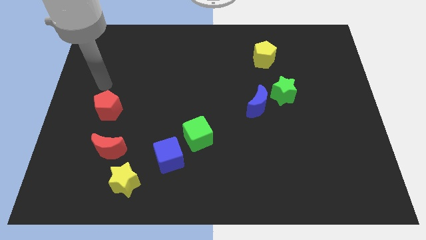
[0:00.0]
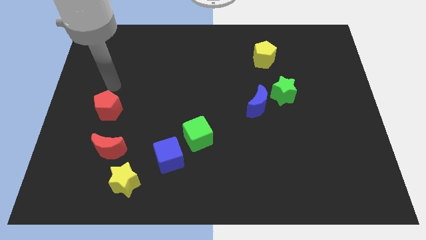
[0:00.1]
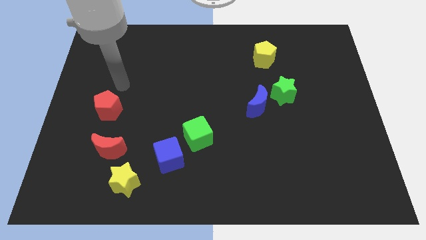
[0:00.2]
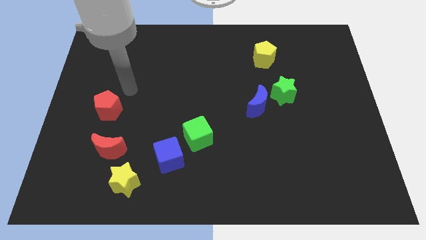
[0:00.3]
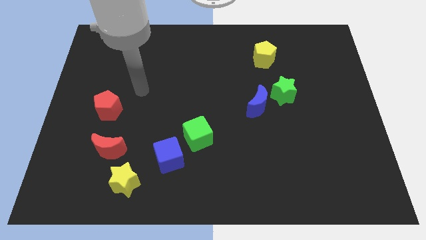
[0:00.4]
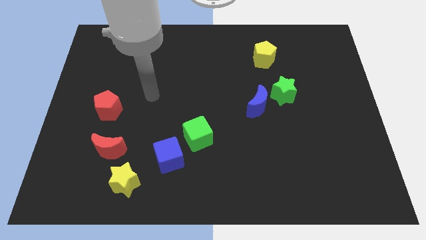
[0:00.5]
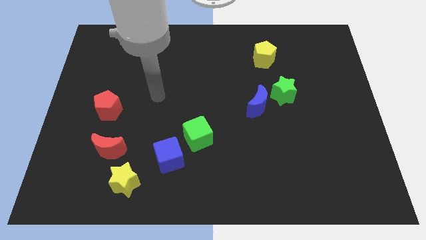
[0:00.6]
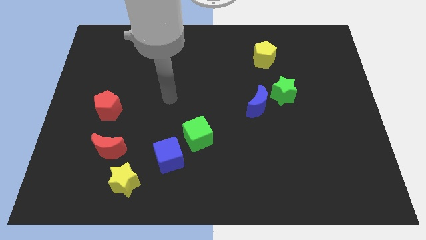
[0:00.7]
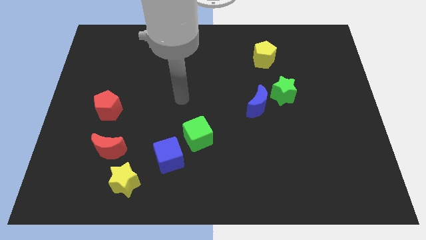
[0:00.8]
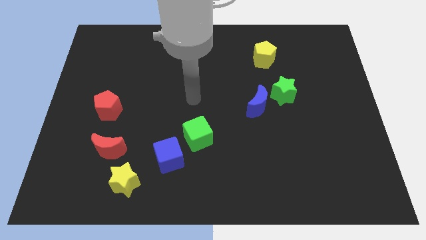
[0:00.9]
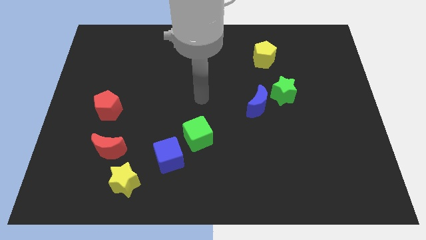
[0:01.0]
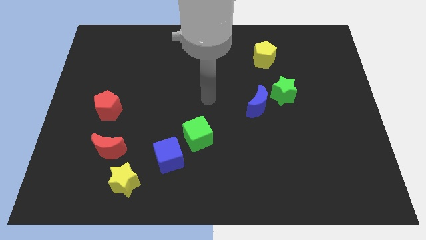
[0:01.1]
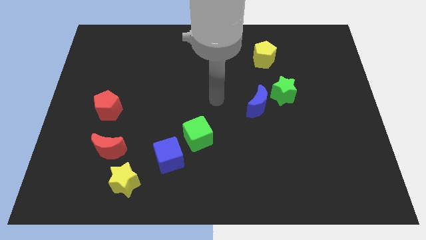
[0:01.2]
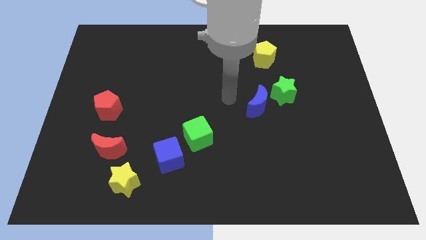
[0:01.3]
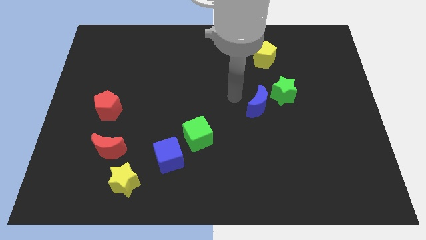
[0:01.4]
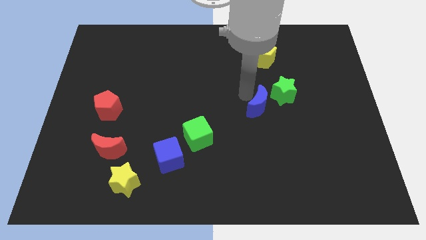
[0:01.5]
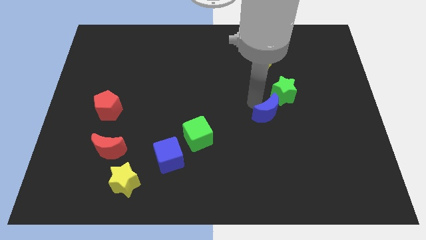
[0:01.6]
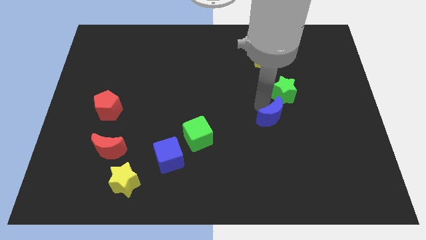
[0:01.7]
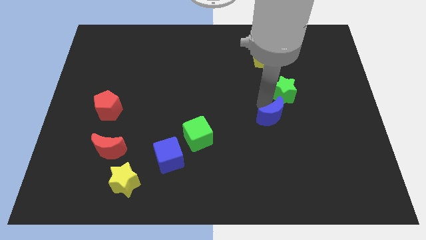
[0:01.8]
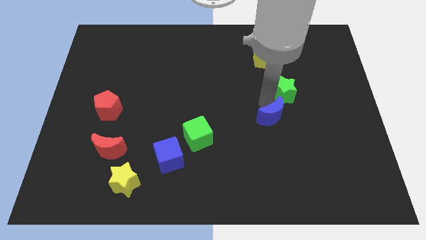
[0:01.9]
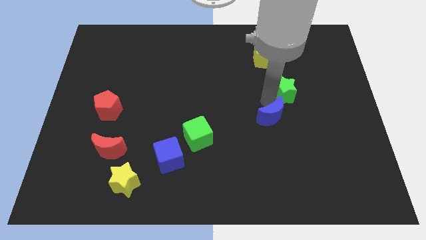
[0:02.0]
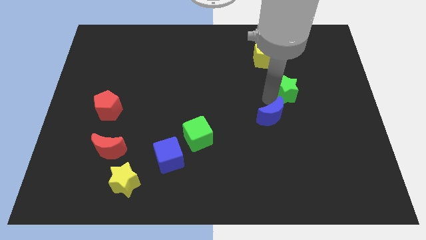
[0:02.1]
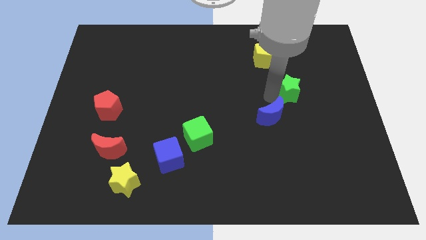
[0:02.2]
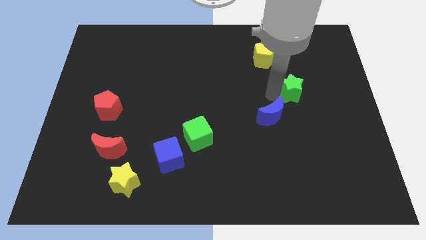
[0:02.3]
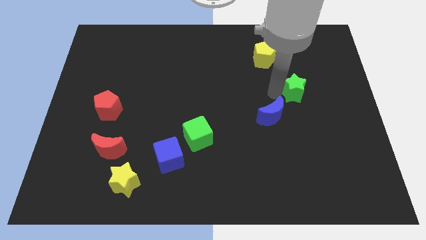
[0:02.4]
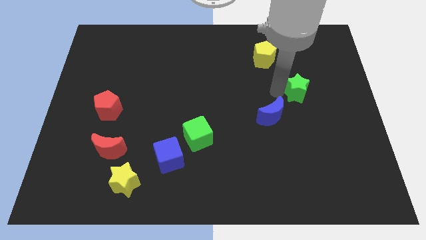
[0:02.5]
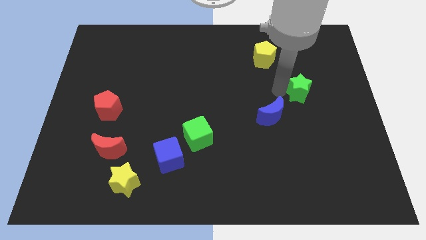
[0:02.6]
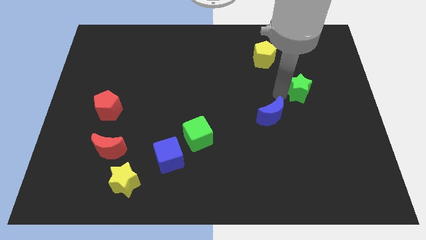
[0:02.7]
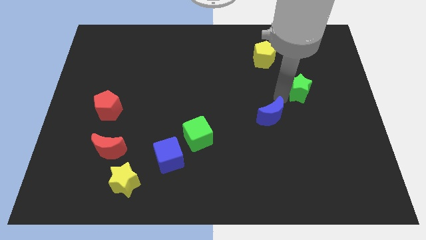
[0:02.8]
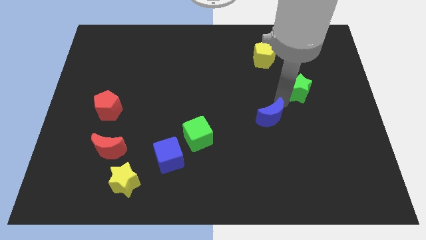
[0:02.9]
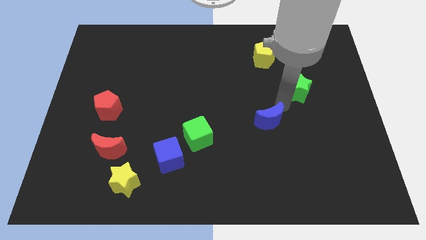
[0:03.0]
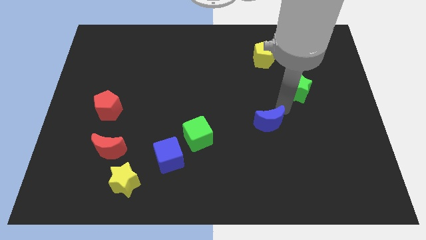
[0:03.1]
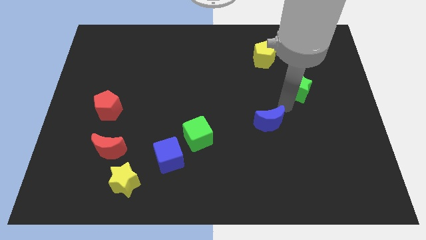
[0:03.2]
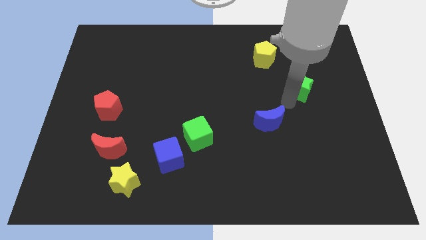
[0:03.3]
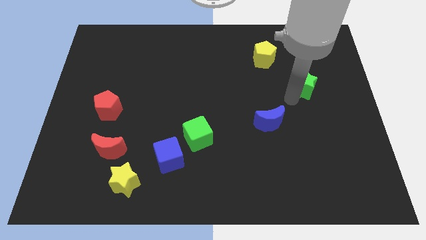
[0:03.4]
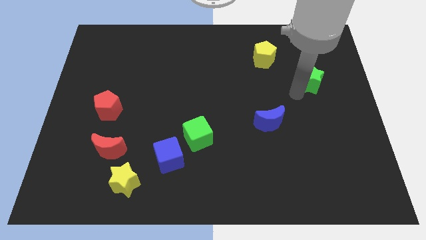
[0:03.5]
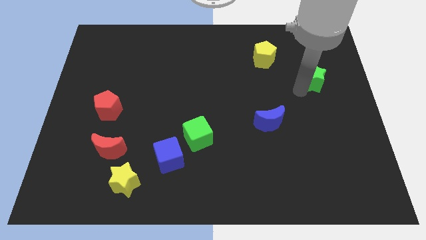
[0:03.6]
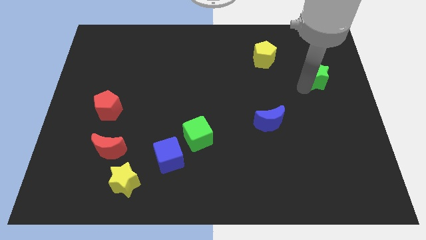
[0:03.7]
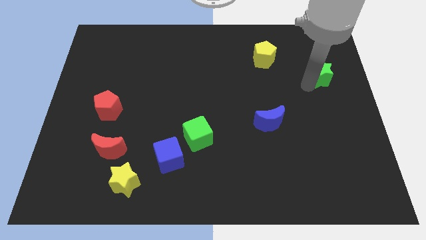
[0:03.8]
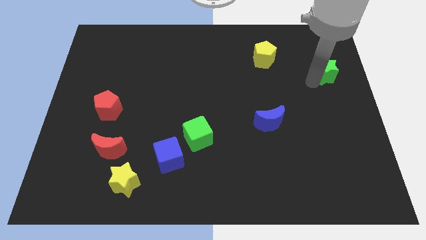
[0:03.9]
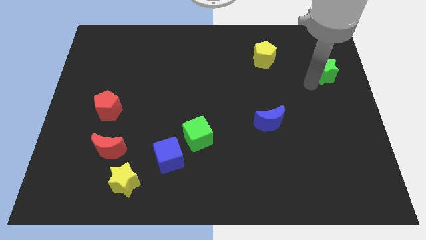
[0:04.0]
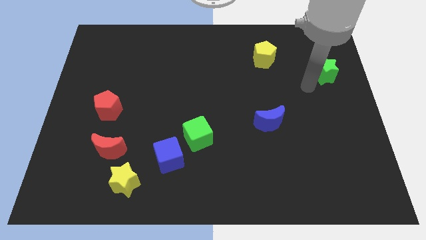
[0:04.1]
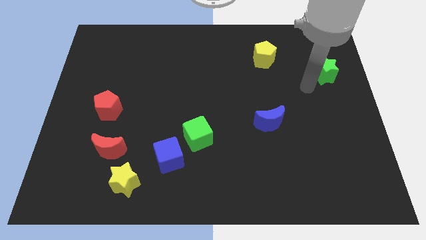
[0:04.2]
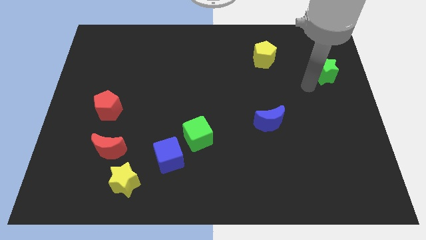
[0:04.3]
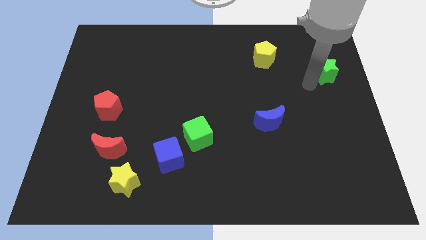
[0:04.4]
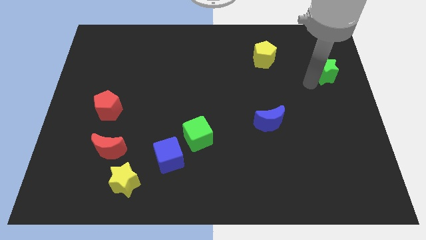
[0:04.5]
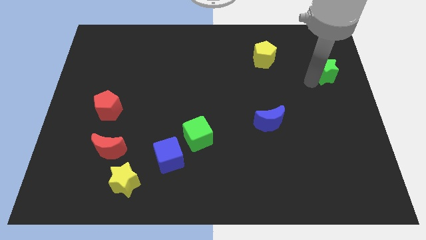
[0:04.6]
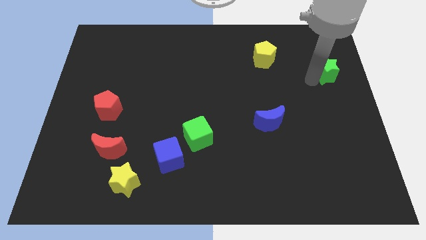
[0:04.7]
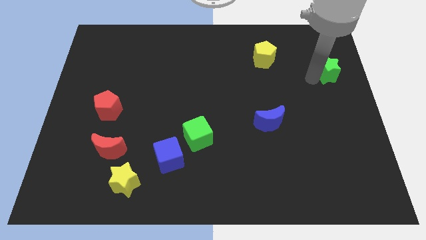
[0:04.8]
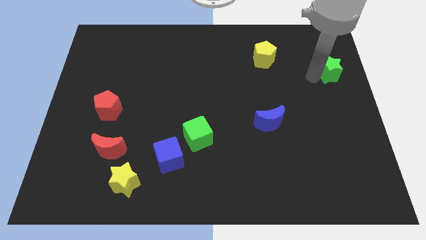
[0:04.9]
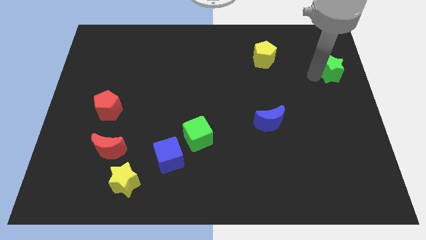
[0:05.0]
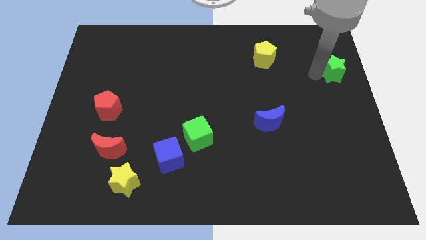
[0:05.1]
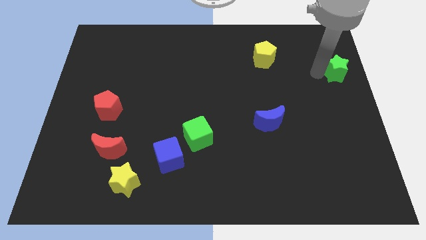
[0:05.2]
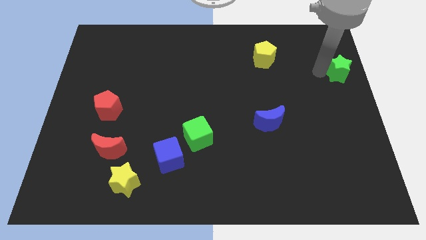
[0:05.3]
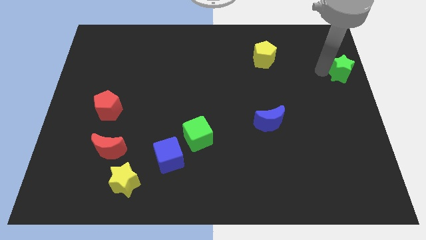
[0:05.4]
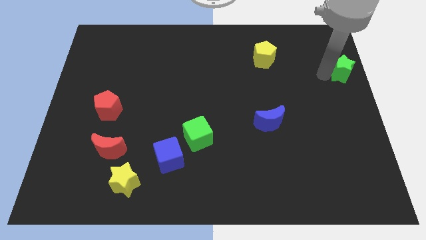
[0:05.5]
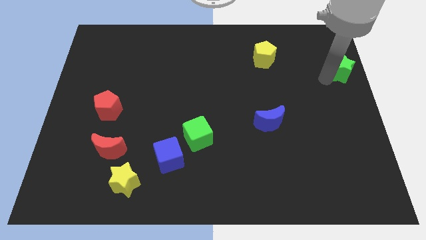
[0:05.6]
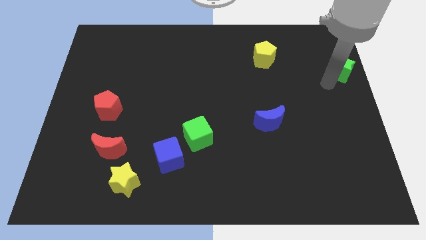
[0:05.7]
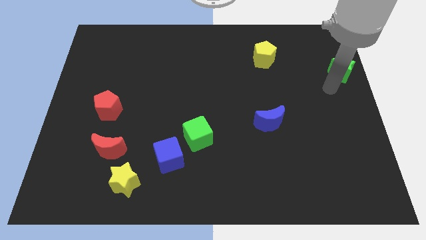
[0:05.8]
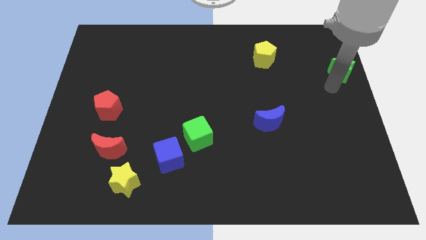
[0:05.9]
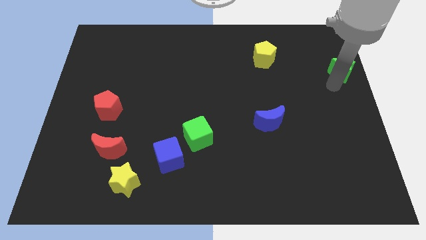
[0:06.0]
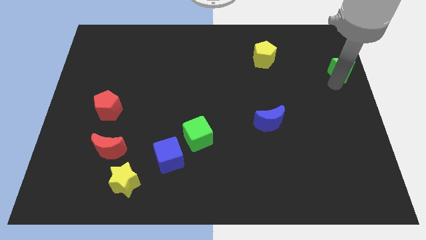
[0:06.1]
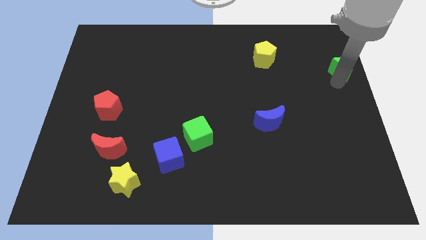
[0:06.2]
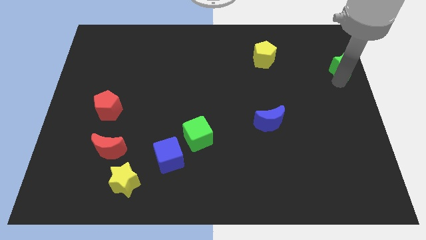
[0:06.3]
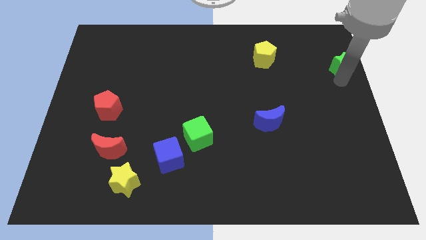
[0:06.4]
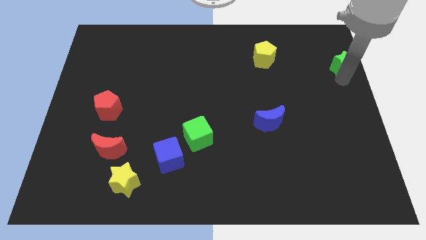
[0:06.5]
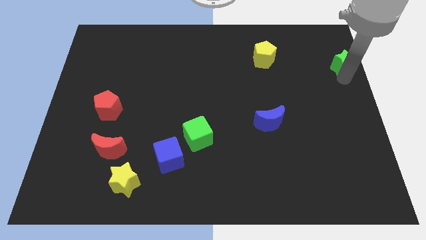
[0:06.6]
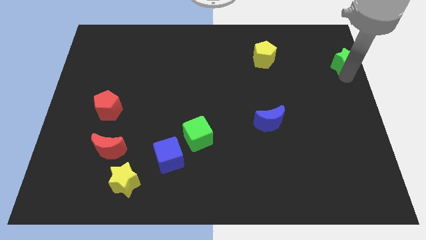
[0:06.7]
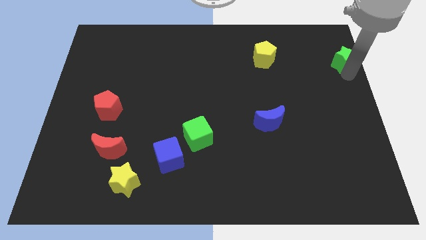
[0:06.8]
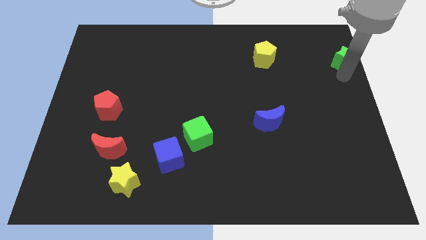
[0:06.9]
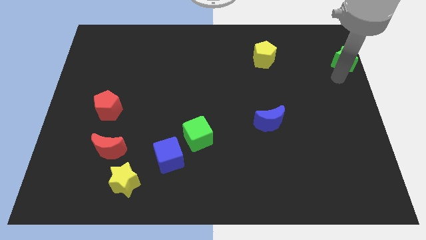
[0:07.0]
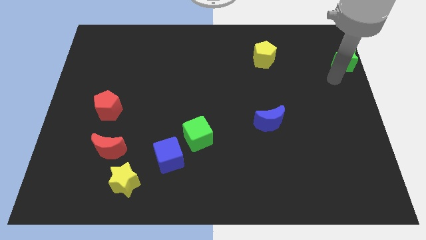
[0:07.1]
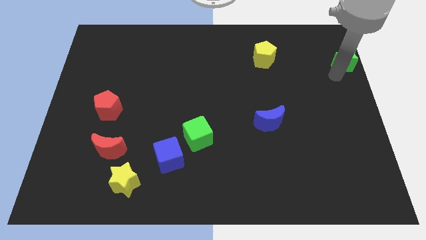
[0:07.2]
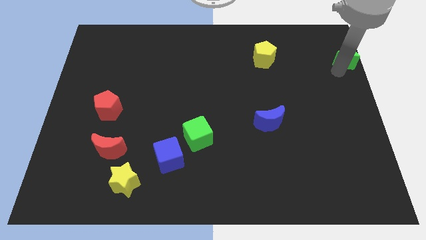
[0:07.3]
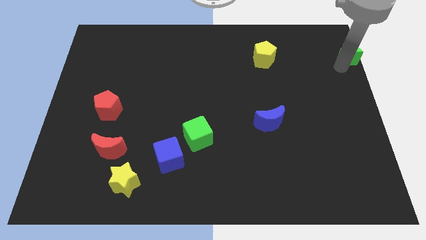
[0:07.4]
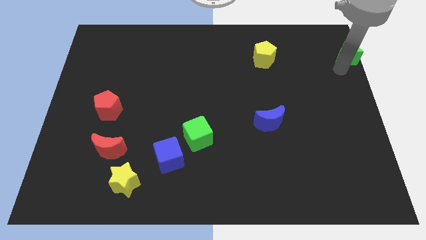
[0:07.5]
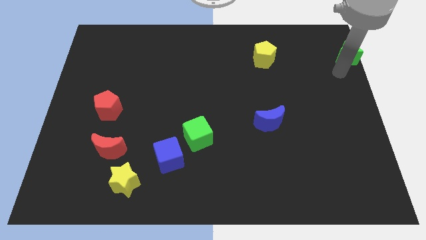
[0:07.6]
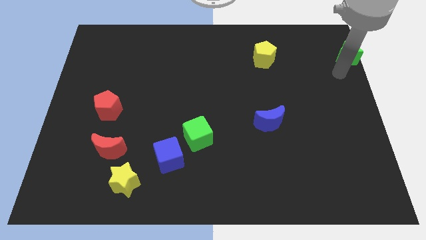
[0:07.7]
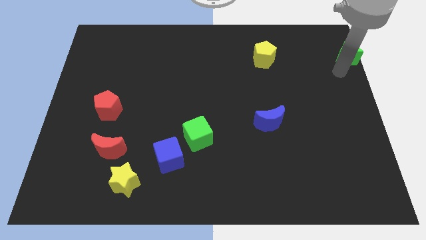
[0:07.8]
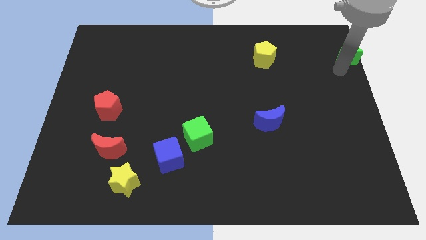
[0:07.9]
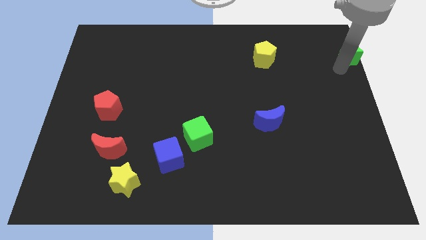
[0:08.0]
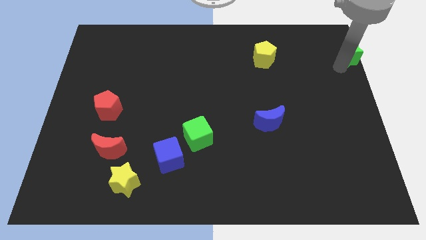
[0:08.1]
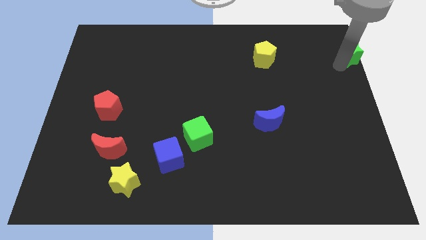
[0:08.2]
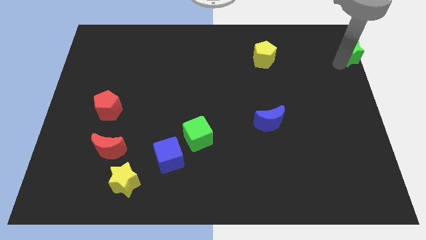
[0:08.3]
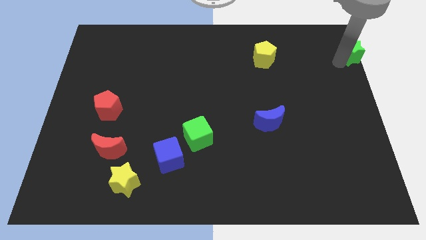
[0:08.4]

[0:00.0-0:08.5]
put the green star to the top right corner
